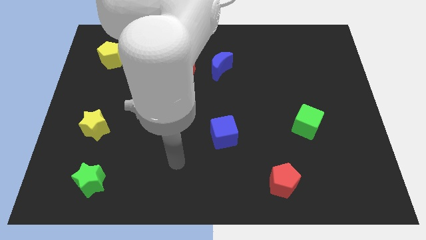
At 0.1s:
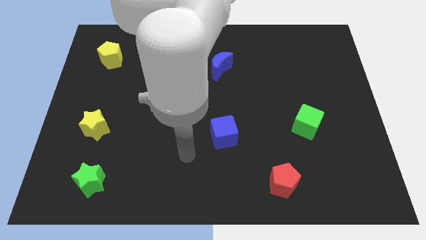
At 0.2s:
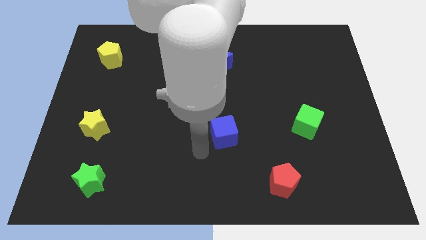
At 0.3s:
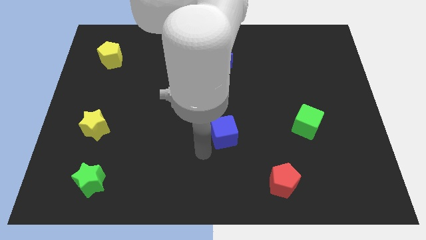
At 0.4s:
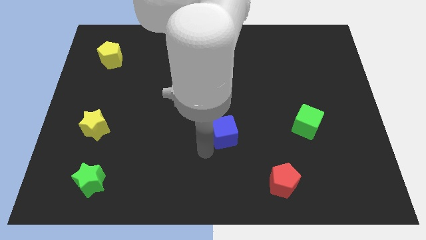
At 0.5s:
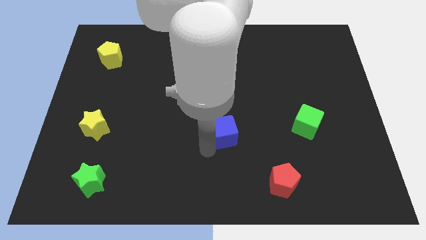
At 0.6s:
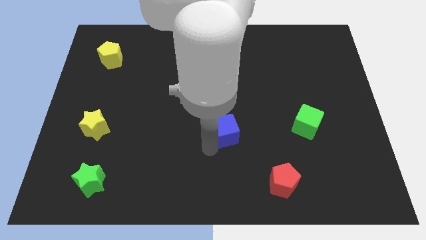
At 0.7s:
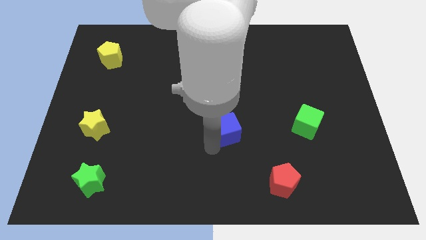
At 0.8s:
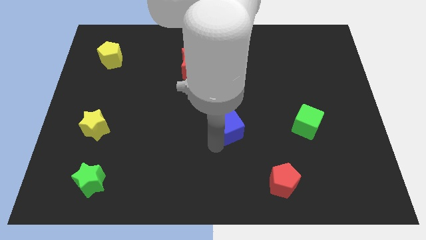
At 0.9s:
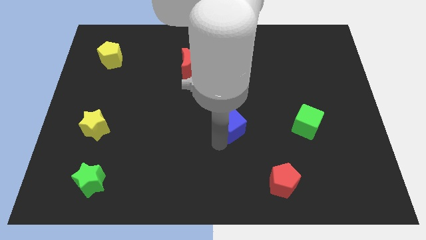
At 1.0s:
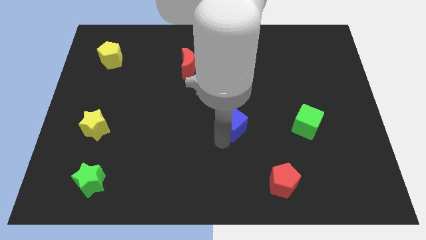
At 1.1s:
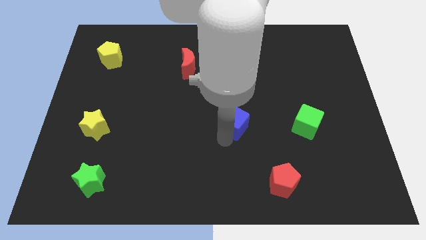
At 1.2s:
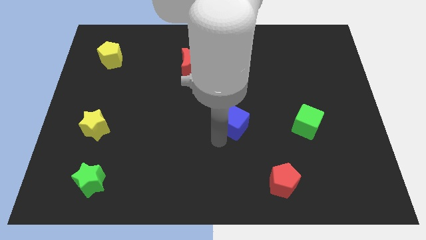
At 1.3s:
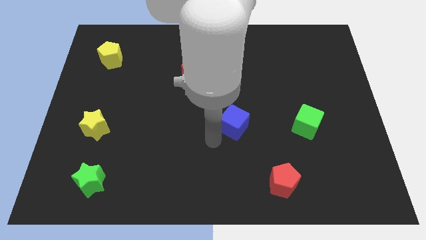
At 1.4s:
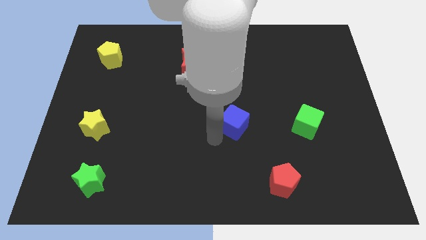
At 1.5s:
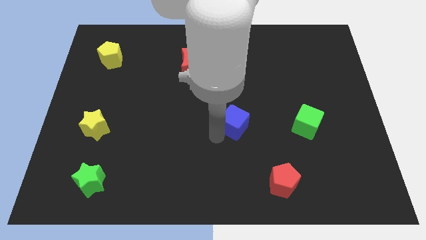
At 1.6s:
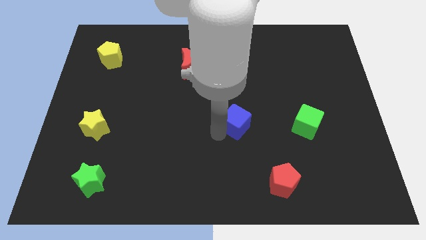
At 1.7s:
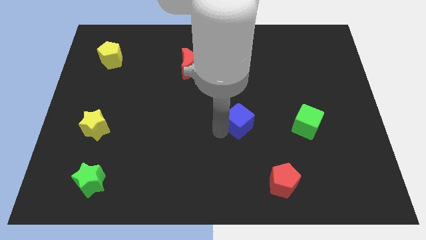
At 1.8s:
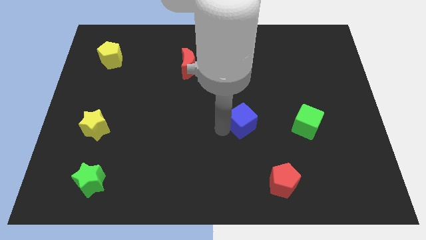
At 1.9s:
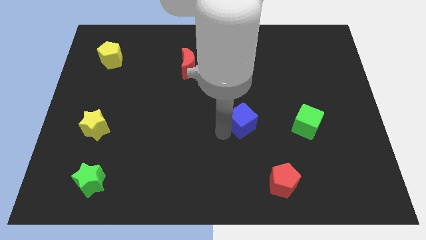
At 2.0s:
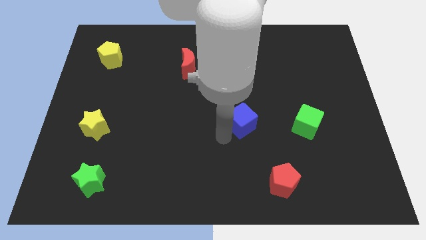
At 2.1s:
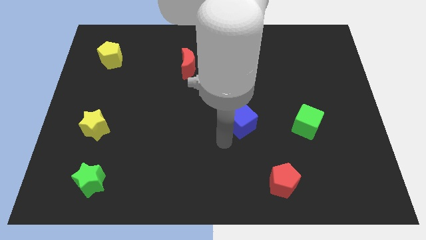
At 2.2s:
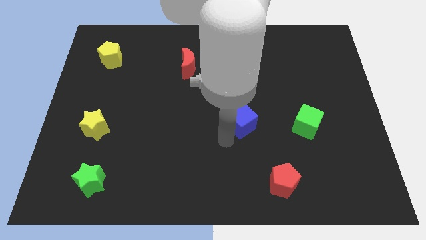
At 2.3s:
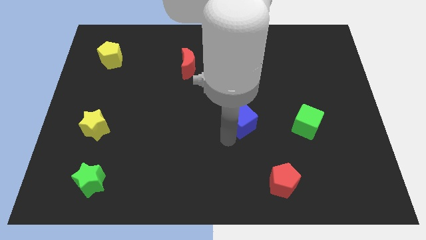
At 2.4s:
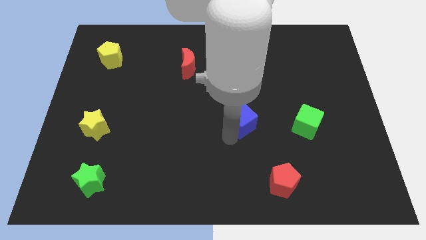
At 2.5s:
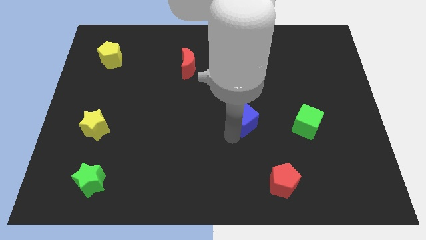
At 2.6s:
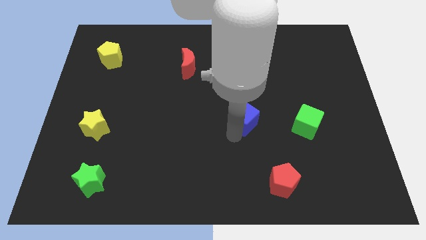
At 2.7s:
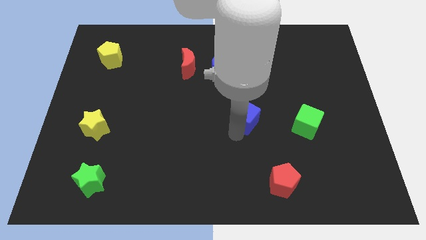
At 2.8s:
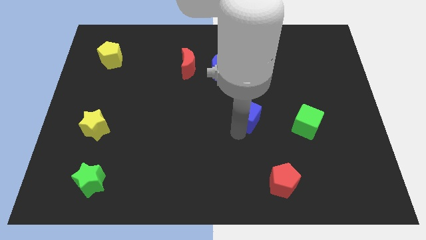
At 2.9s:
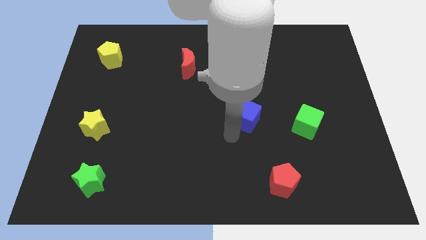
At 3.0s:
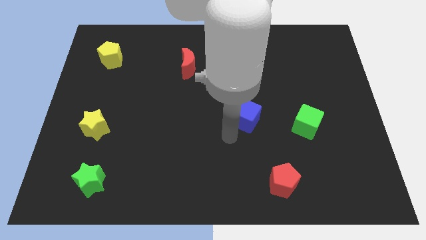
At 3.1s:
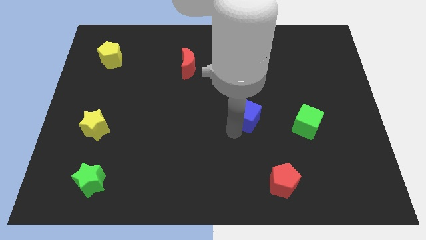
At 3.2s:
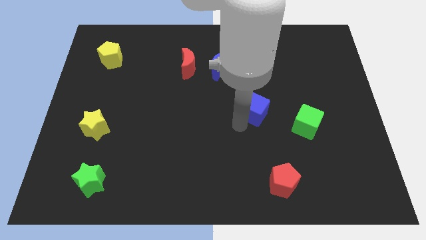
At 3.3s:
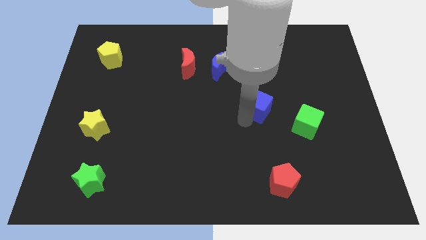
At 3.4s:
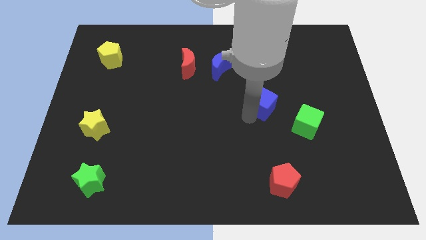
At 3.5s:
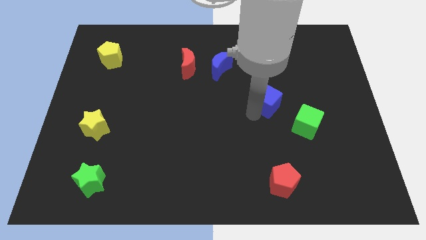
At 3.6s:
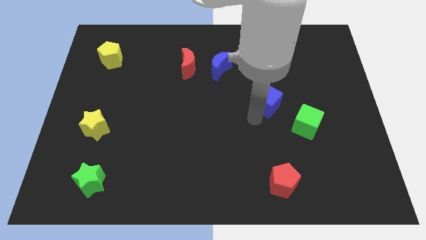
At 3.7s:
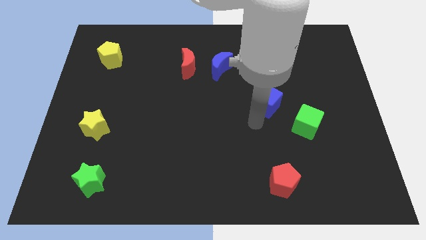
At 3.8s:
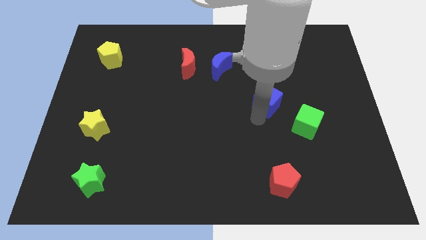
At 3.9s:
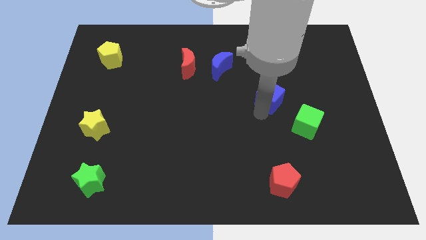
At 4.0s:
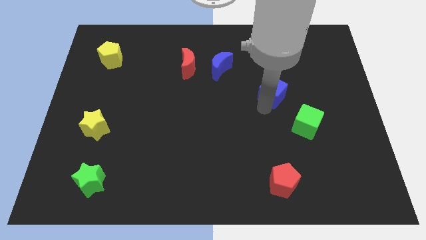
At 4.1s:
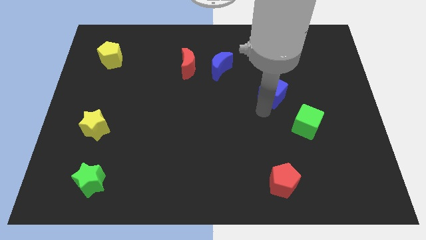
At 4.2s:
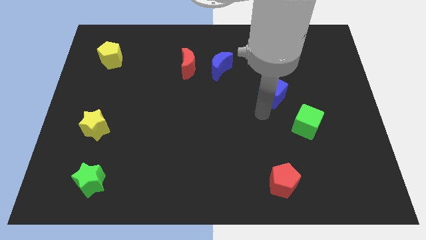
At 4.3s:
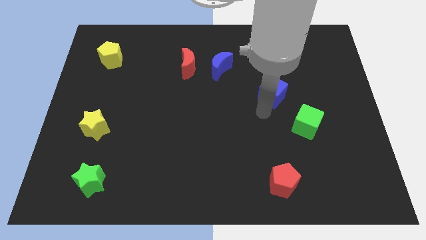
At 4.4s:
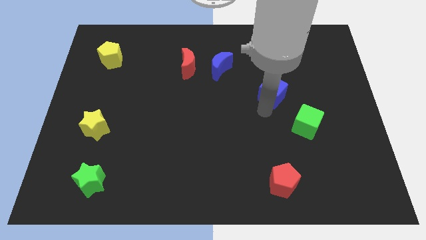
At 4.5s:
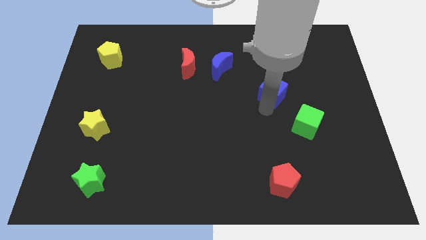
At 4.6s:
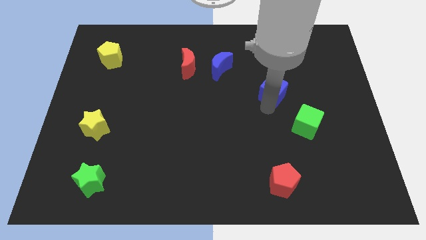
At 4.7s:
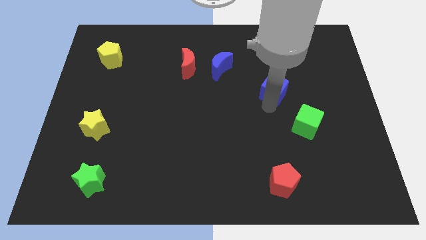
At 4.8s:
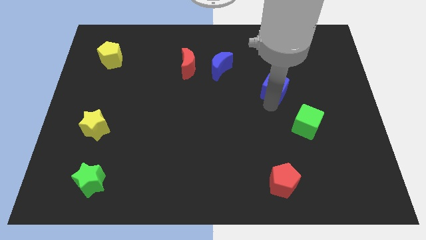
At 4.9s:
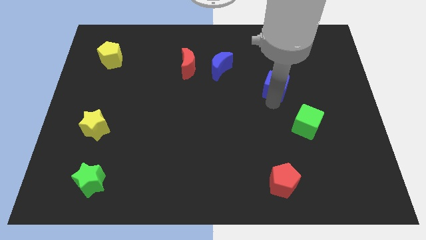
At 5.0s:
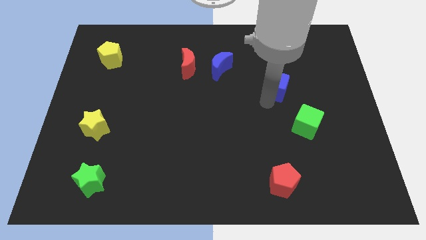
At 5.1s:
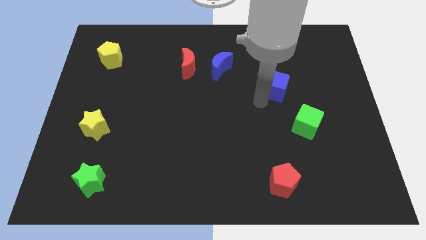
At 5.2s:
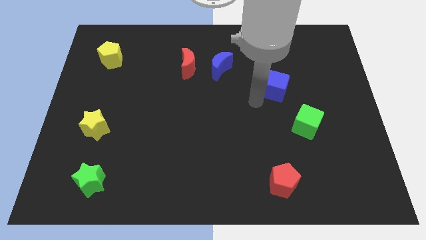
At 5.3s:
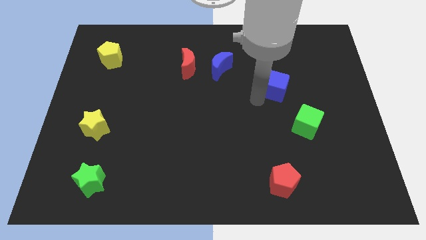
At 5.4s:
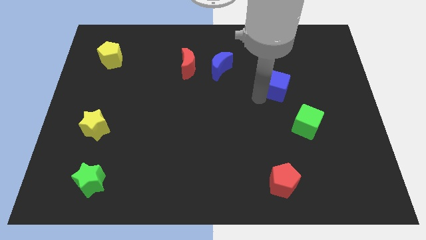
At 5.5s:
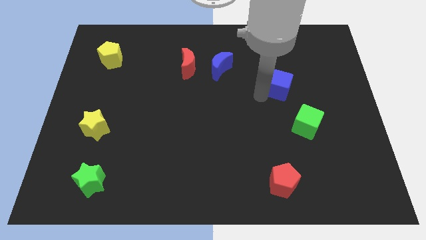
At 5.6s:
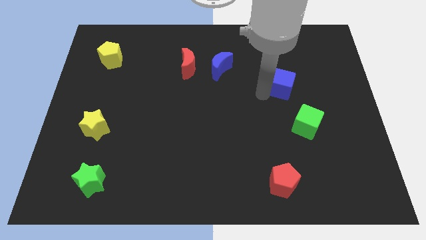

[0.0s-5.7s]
push the blue cube diagonally up and right

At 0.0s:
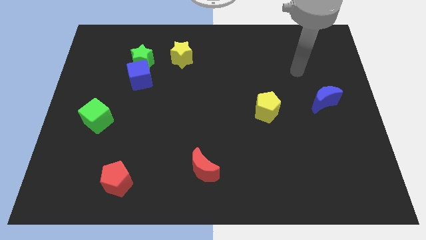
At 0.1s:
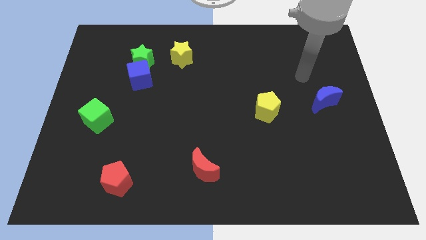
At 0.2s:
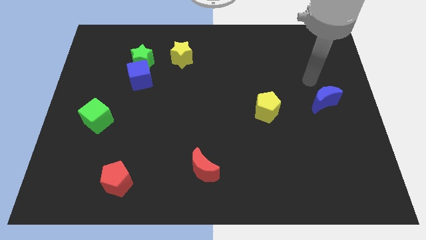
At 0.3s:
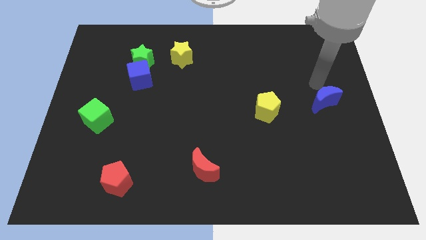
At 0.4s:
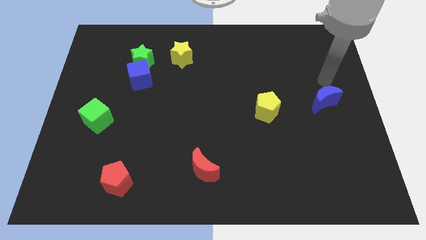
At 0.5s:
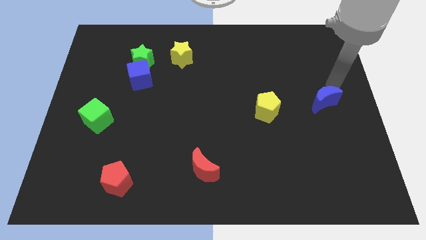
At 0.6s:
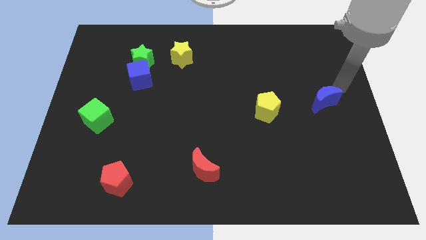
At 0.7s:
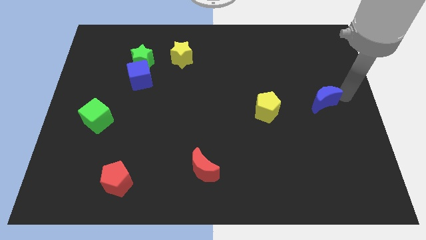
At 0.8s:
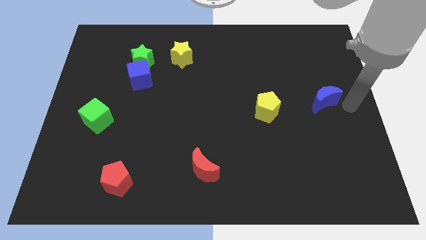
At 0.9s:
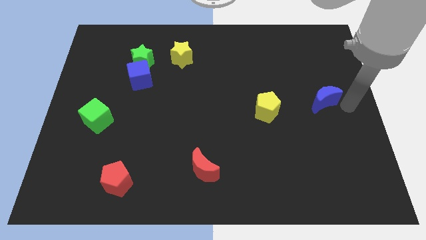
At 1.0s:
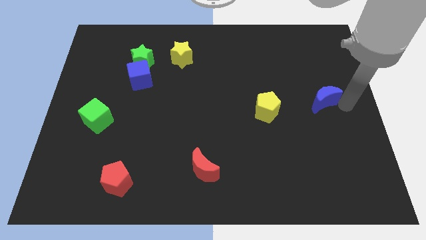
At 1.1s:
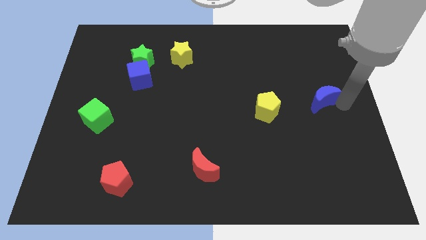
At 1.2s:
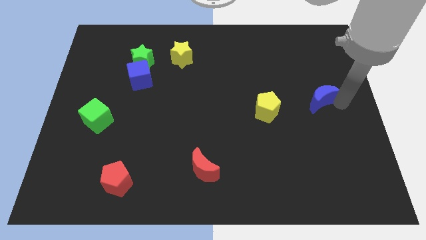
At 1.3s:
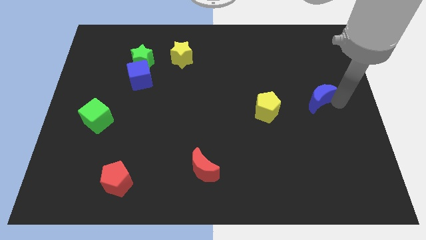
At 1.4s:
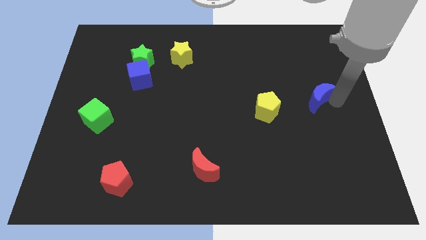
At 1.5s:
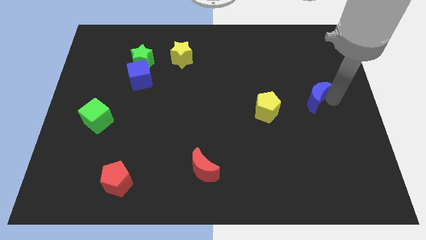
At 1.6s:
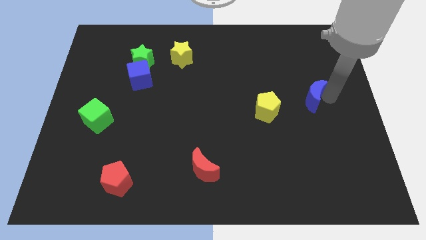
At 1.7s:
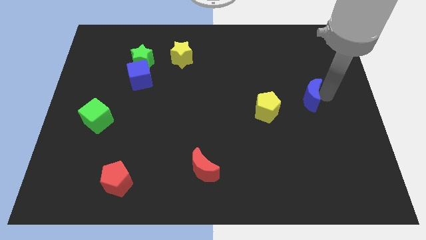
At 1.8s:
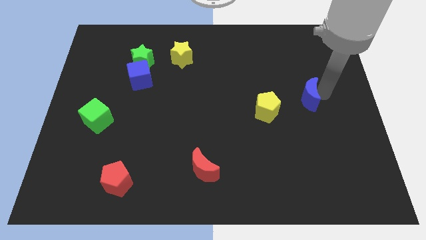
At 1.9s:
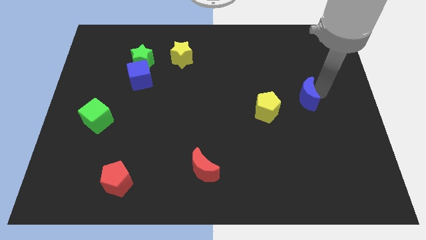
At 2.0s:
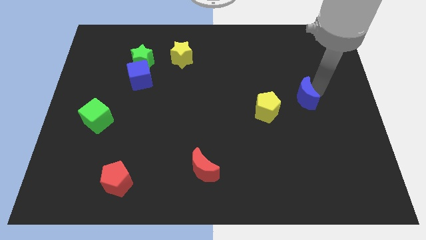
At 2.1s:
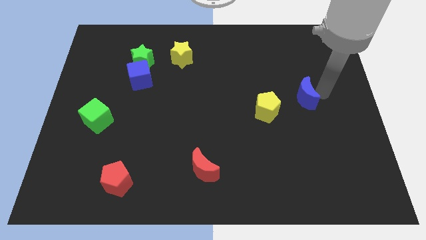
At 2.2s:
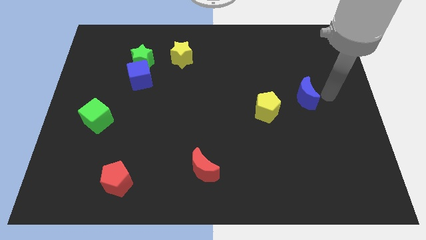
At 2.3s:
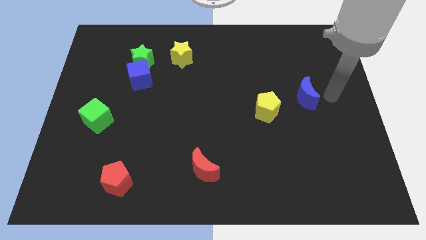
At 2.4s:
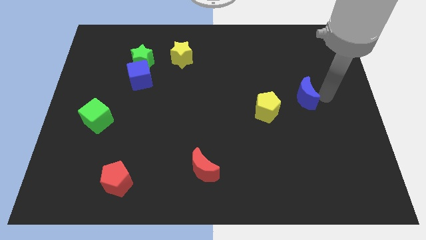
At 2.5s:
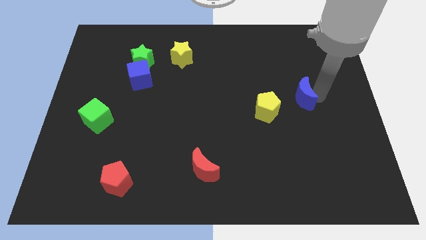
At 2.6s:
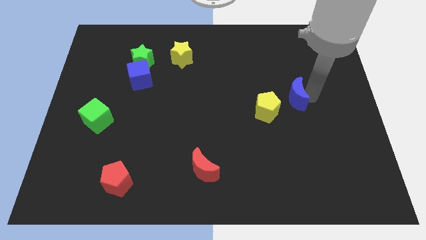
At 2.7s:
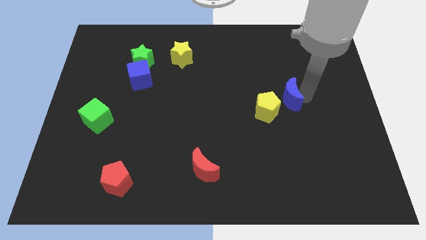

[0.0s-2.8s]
move the blue moon a little to the left
